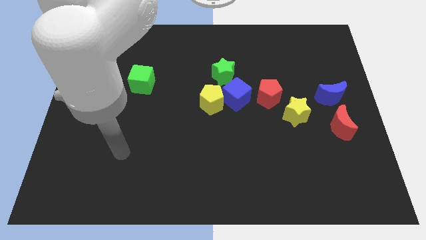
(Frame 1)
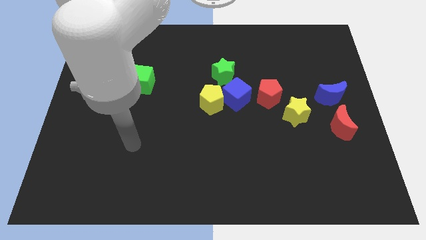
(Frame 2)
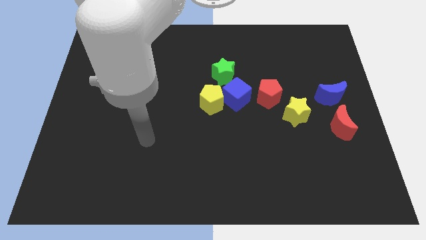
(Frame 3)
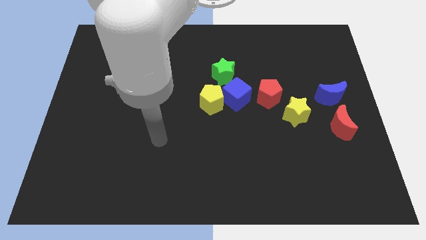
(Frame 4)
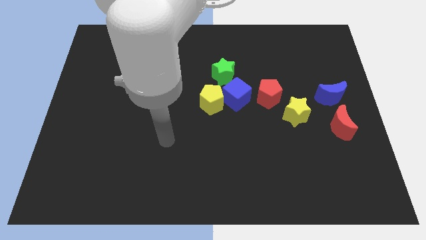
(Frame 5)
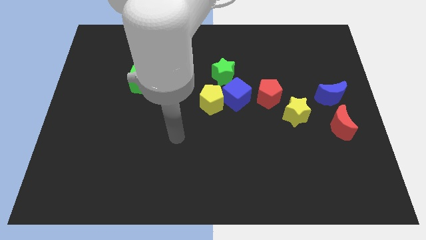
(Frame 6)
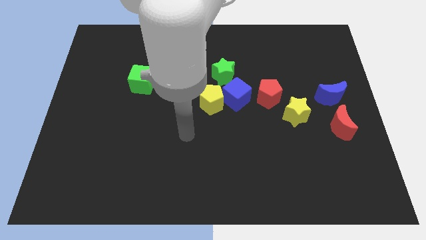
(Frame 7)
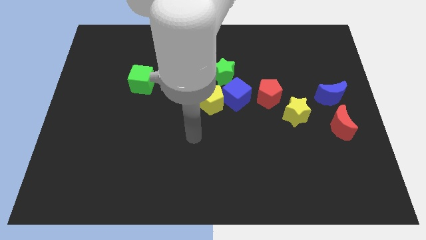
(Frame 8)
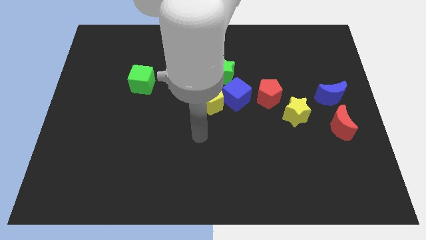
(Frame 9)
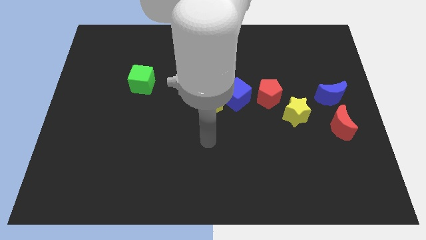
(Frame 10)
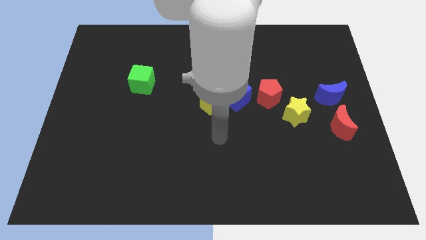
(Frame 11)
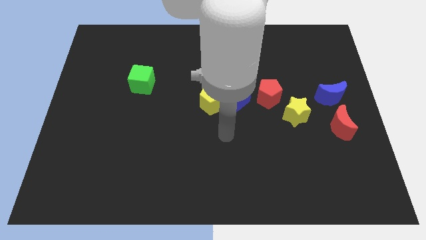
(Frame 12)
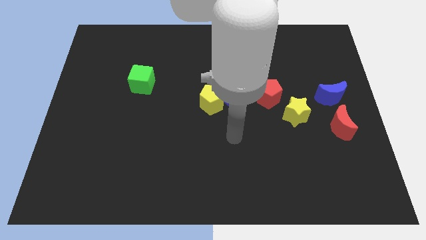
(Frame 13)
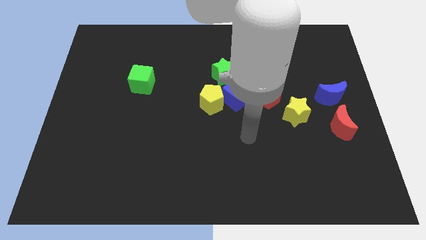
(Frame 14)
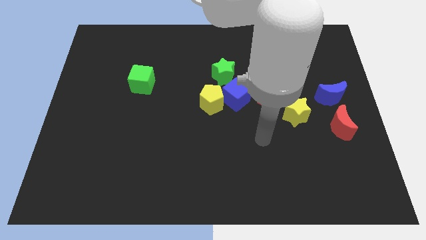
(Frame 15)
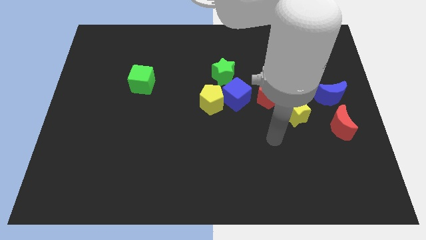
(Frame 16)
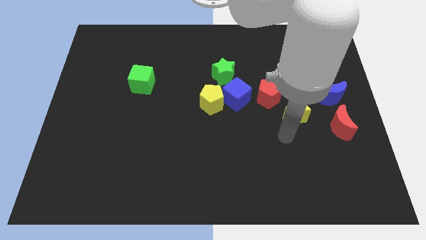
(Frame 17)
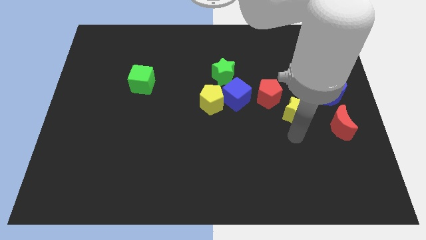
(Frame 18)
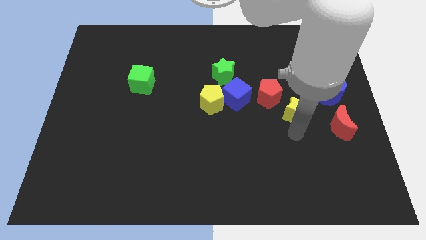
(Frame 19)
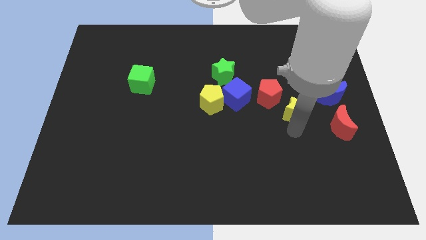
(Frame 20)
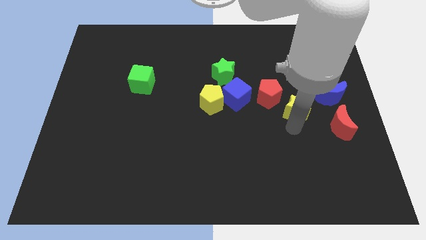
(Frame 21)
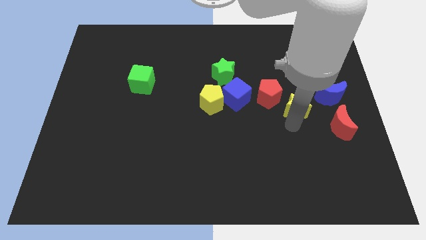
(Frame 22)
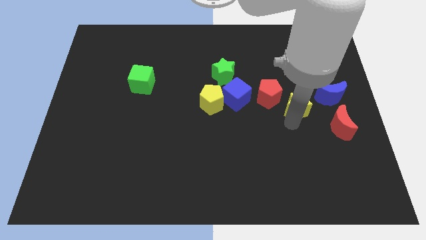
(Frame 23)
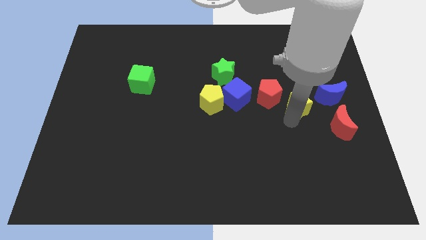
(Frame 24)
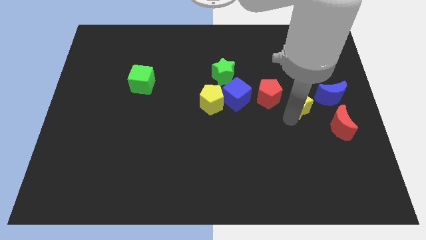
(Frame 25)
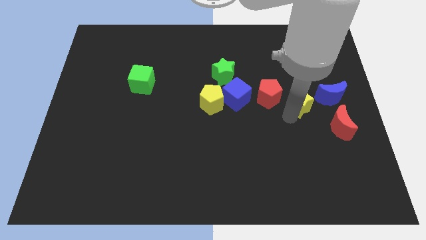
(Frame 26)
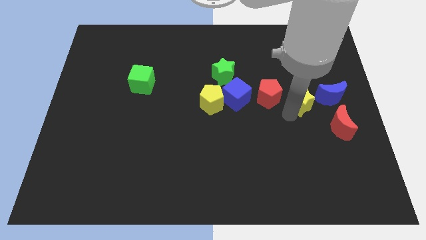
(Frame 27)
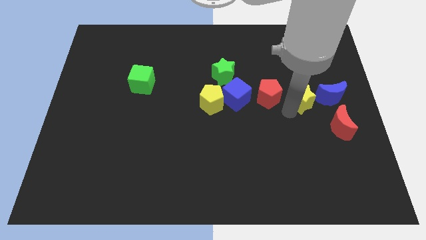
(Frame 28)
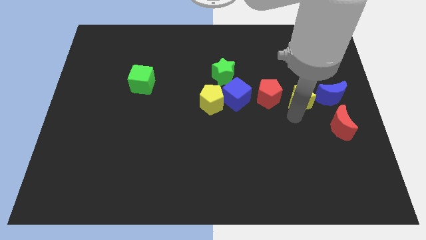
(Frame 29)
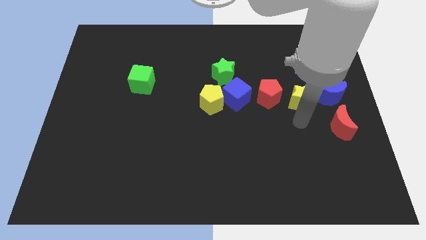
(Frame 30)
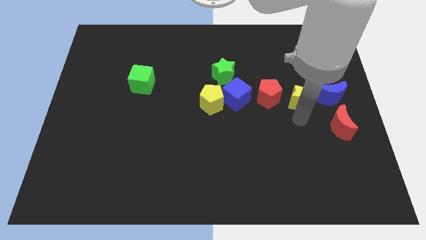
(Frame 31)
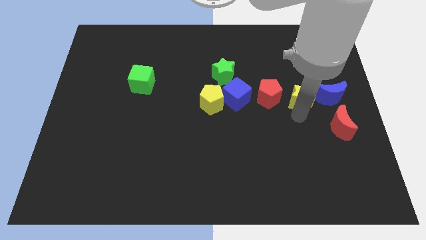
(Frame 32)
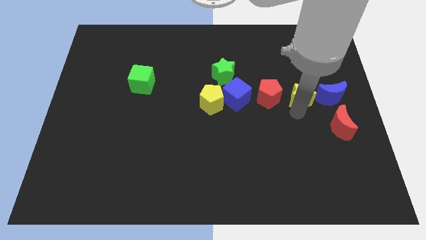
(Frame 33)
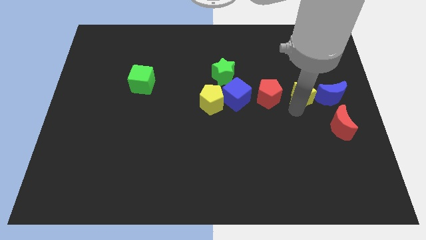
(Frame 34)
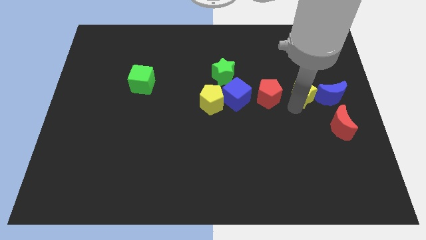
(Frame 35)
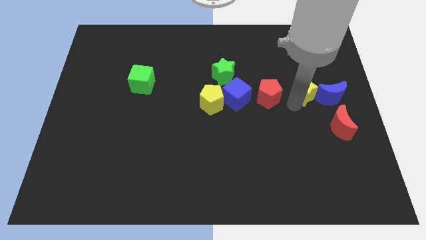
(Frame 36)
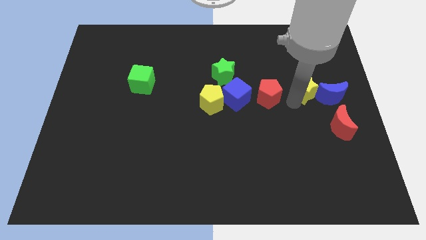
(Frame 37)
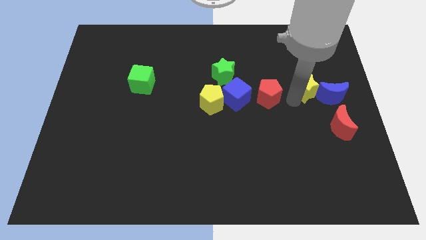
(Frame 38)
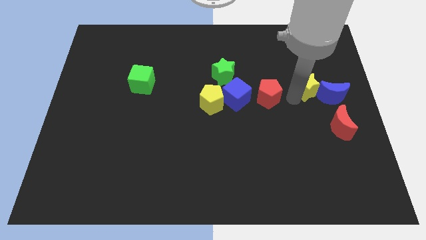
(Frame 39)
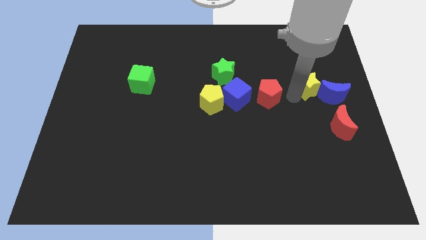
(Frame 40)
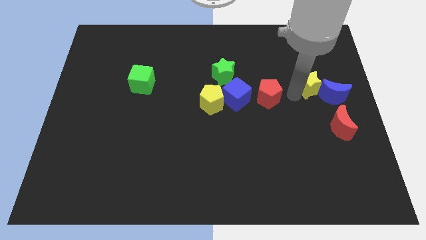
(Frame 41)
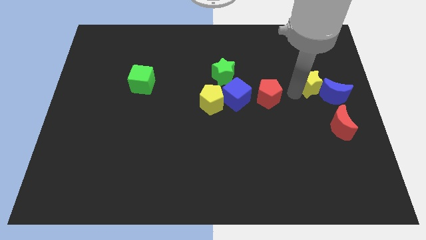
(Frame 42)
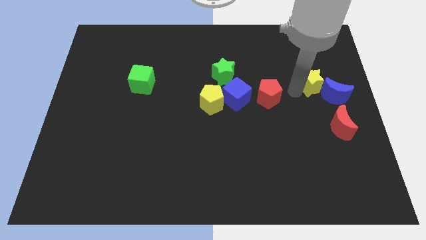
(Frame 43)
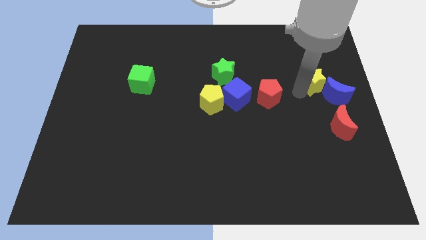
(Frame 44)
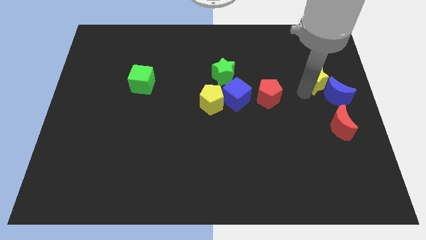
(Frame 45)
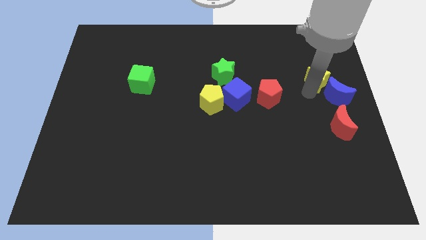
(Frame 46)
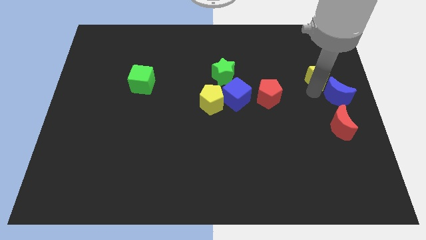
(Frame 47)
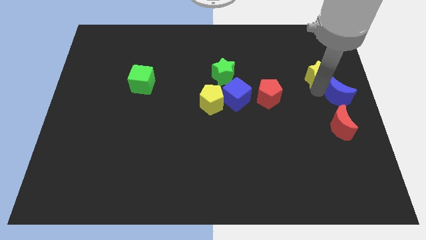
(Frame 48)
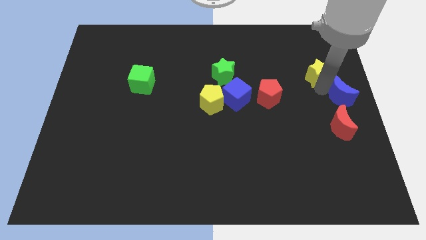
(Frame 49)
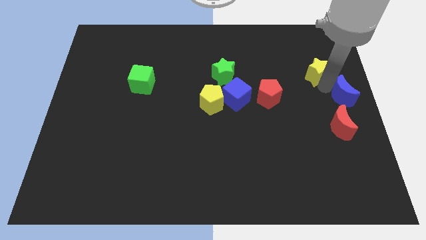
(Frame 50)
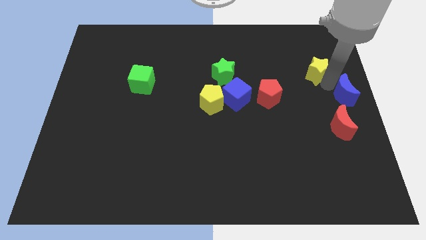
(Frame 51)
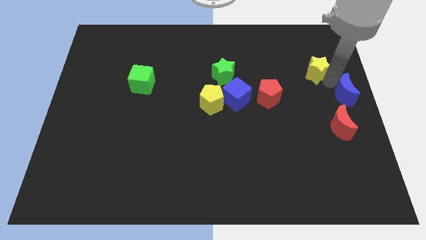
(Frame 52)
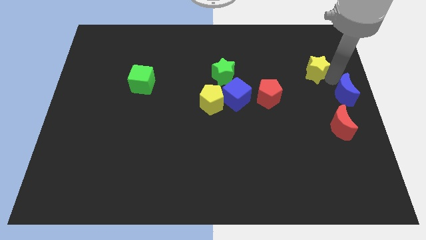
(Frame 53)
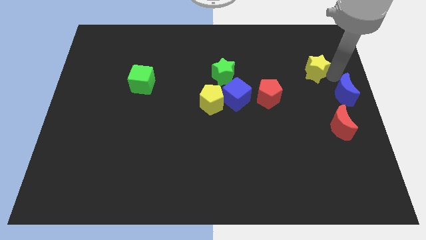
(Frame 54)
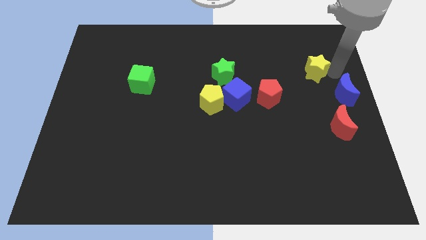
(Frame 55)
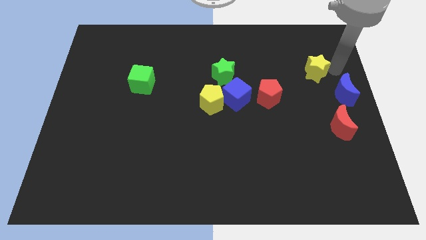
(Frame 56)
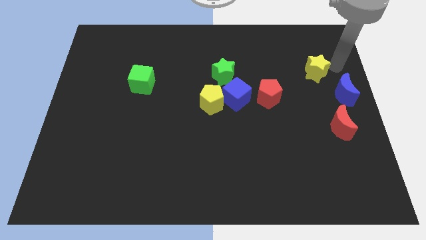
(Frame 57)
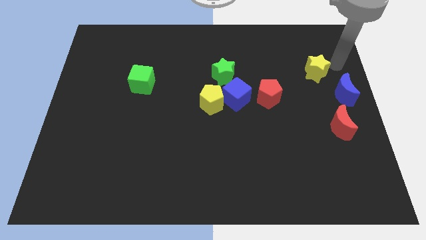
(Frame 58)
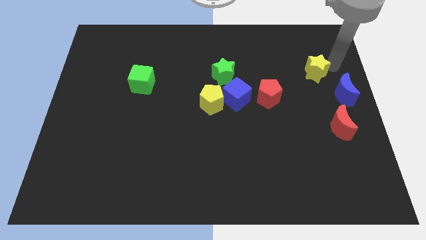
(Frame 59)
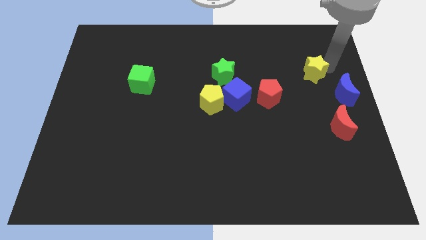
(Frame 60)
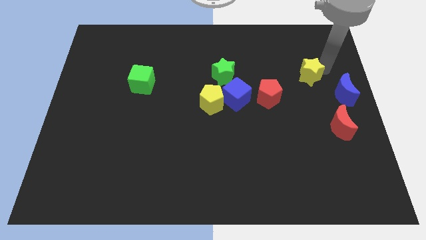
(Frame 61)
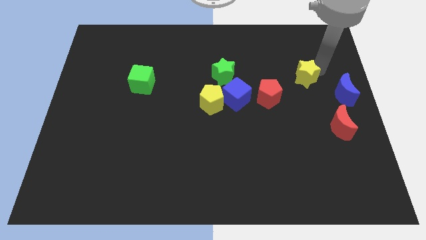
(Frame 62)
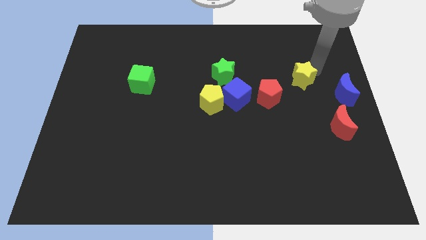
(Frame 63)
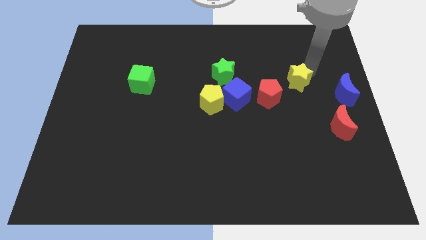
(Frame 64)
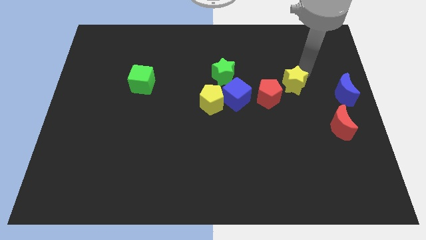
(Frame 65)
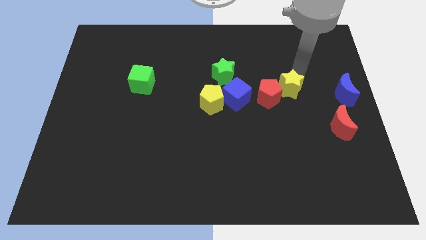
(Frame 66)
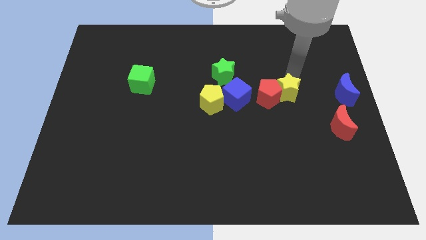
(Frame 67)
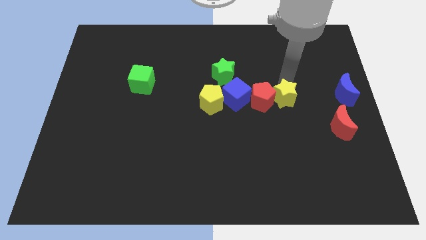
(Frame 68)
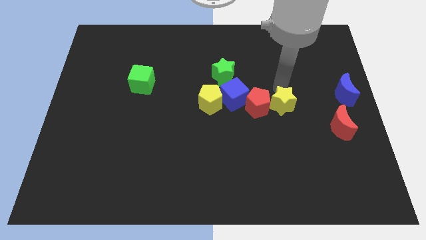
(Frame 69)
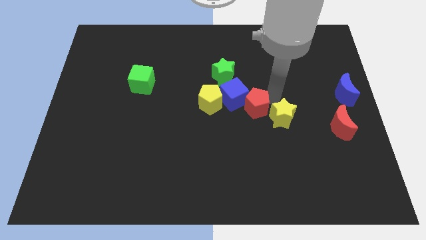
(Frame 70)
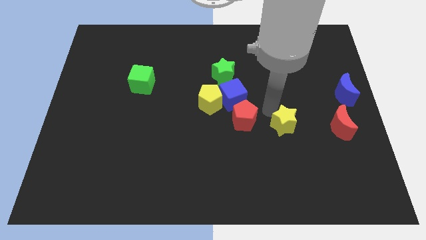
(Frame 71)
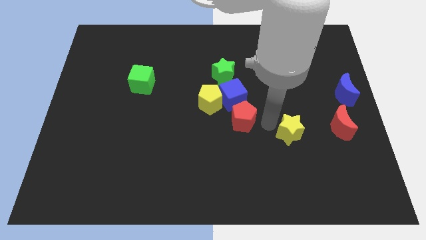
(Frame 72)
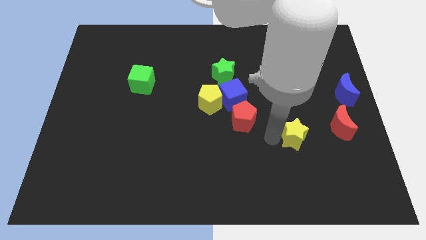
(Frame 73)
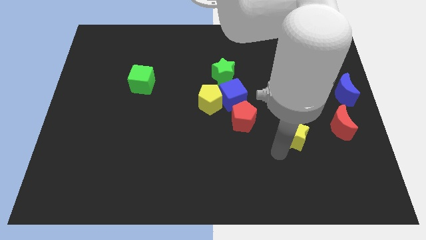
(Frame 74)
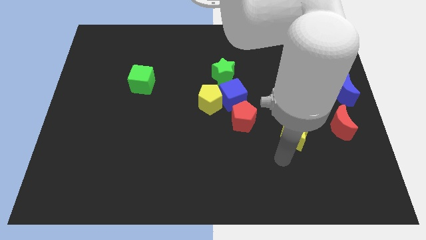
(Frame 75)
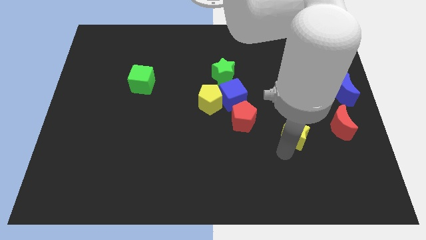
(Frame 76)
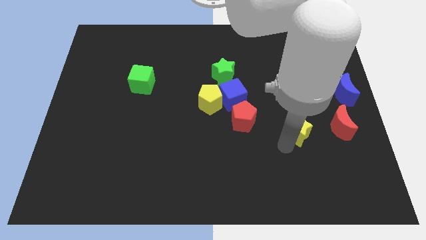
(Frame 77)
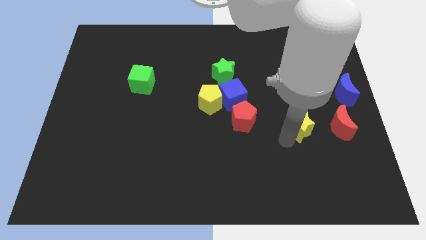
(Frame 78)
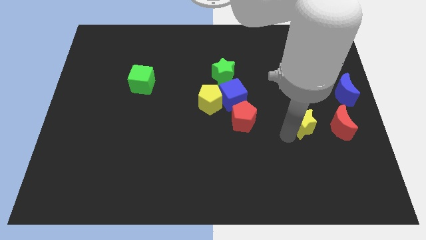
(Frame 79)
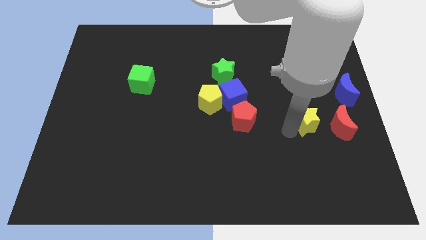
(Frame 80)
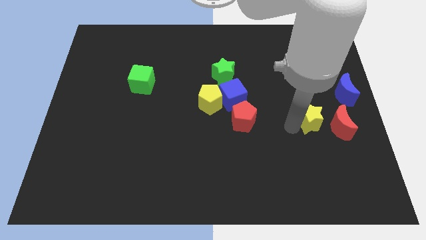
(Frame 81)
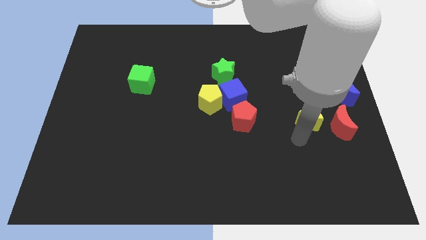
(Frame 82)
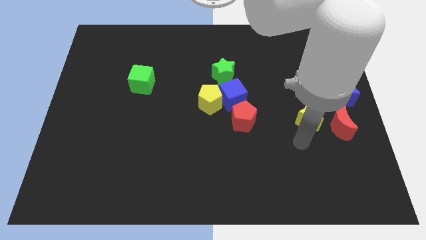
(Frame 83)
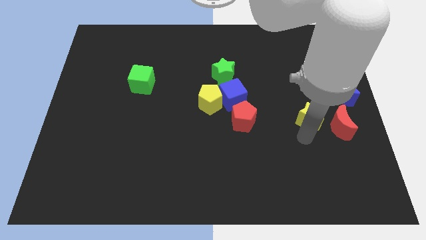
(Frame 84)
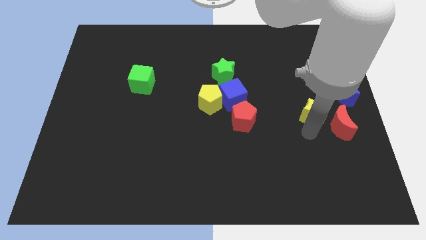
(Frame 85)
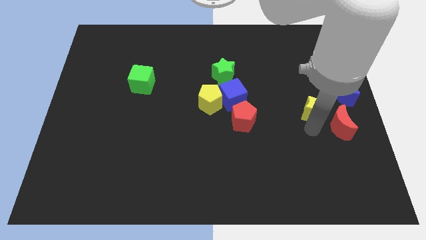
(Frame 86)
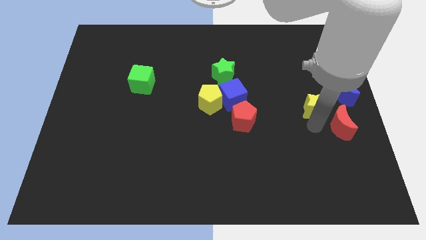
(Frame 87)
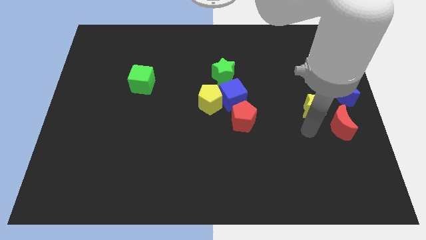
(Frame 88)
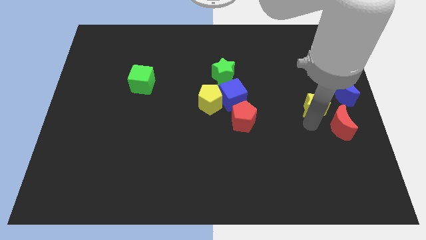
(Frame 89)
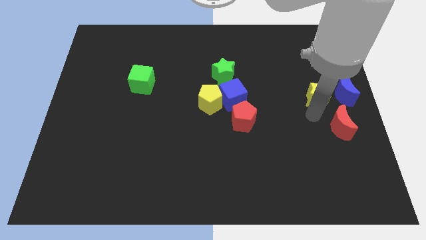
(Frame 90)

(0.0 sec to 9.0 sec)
slide the yellow star to the center right
